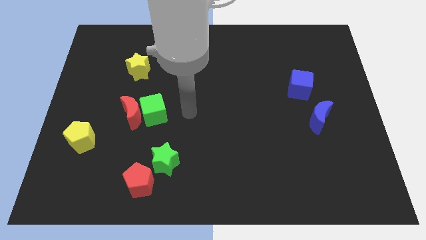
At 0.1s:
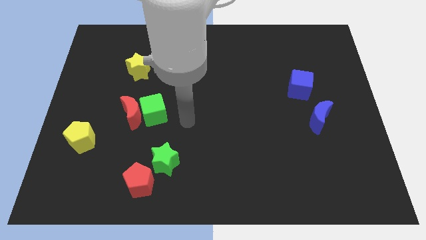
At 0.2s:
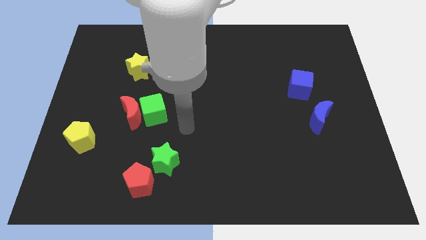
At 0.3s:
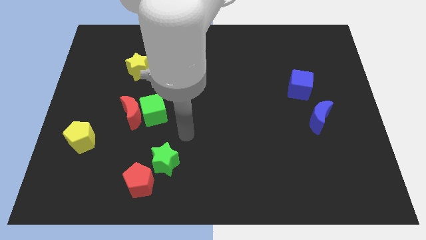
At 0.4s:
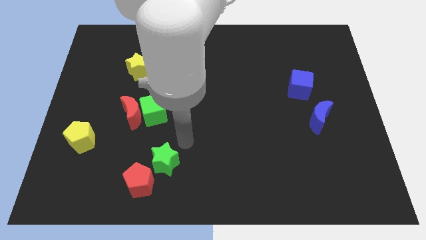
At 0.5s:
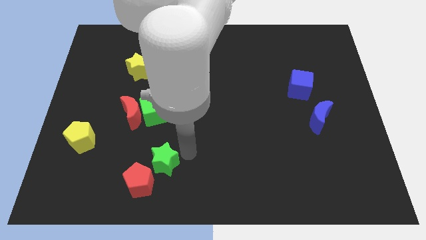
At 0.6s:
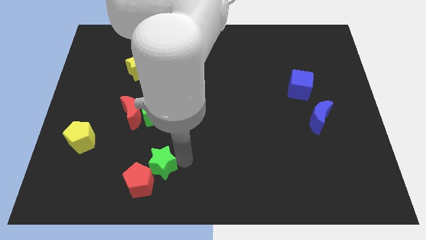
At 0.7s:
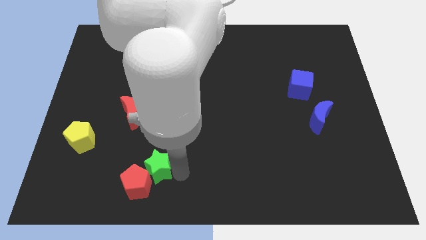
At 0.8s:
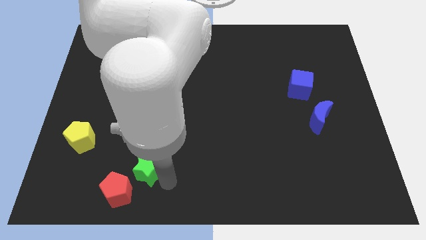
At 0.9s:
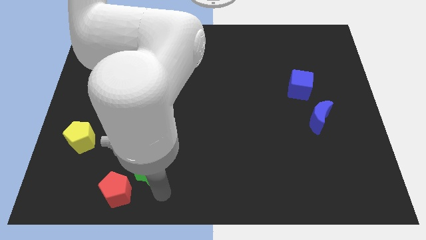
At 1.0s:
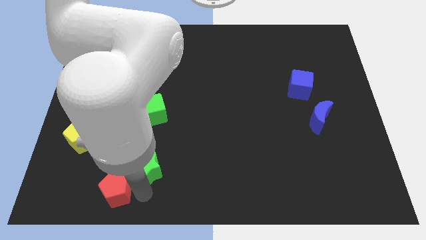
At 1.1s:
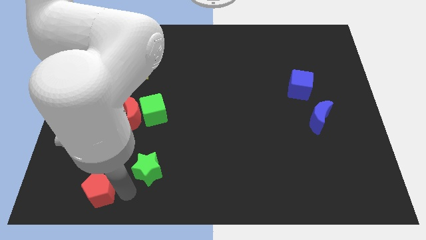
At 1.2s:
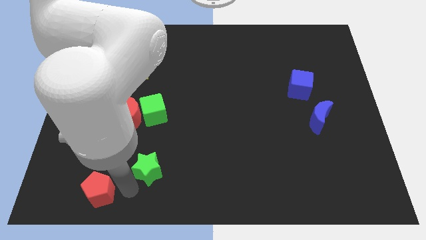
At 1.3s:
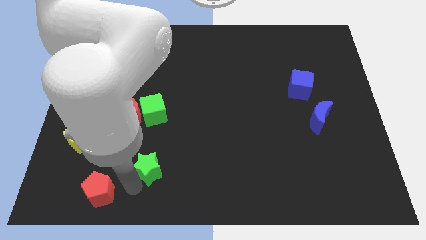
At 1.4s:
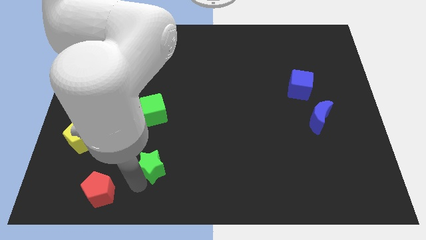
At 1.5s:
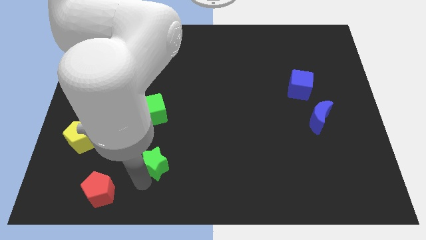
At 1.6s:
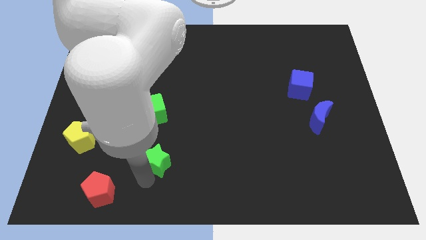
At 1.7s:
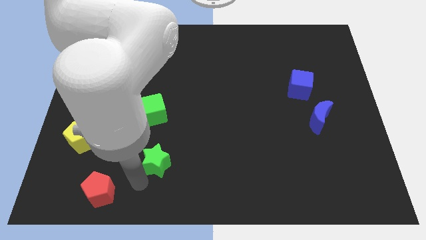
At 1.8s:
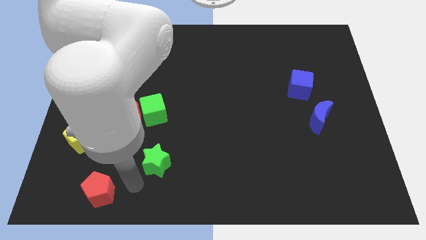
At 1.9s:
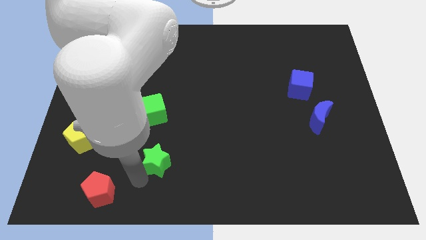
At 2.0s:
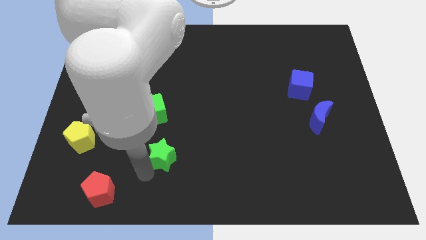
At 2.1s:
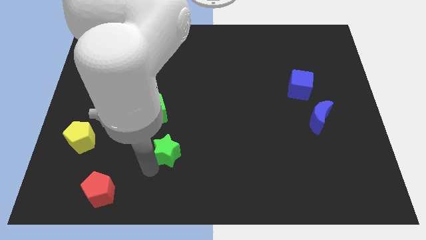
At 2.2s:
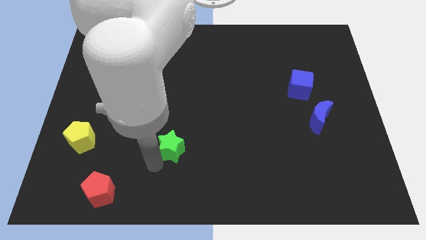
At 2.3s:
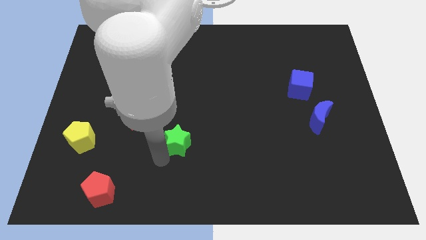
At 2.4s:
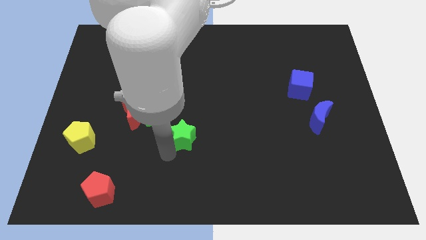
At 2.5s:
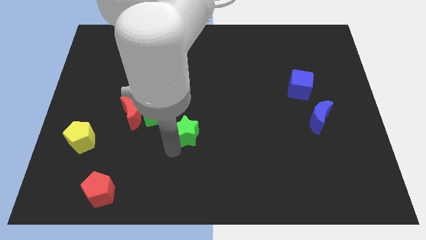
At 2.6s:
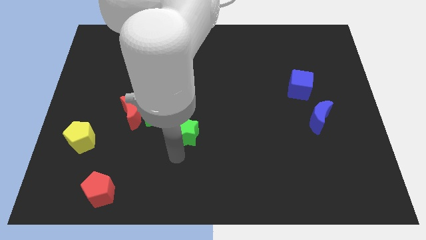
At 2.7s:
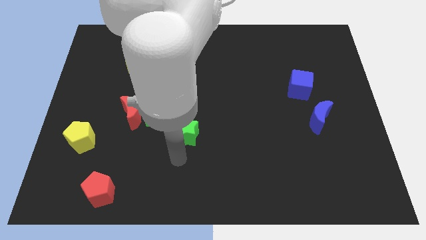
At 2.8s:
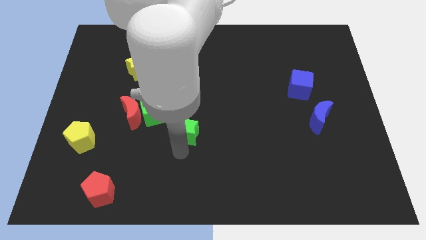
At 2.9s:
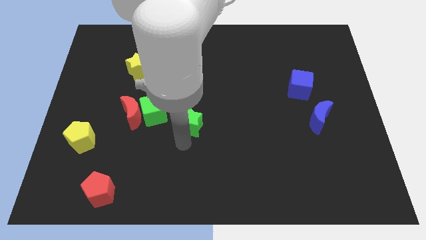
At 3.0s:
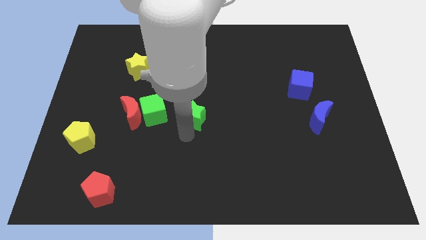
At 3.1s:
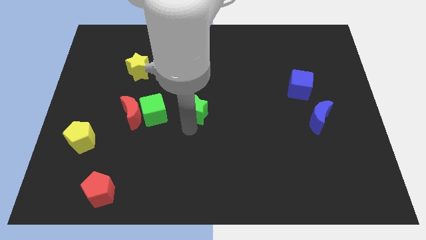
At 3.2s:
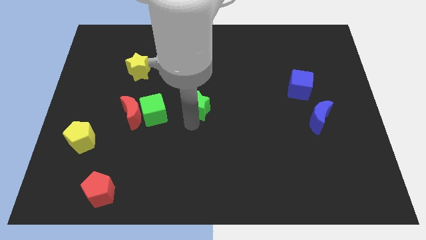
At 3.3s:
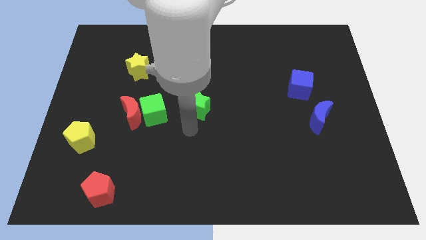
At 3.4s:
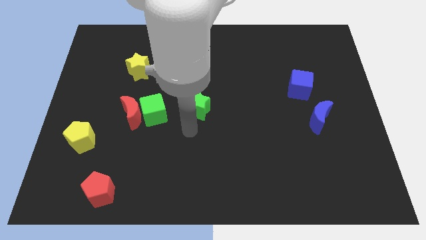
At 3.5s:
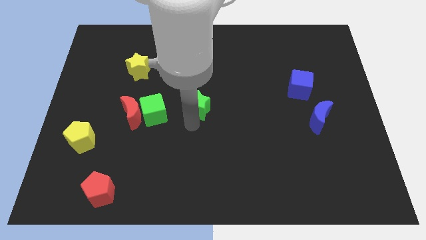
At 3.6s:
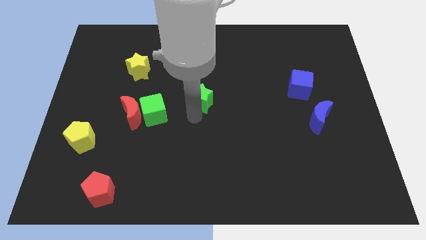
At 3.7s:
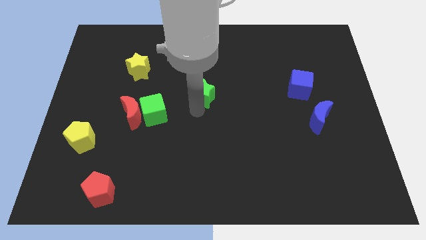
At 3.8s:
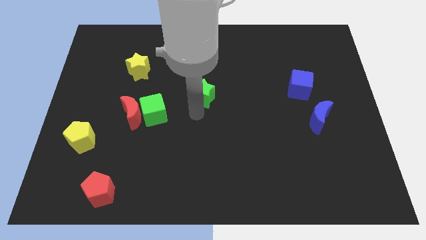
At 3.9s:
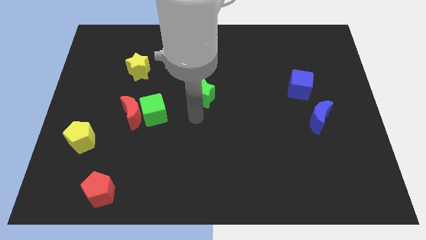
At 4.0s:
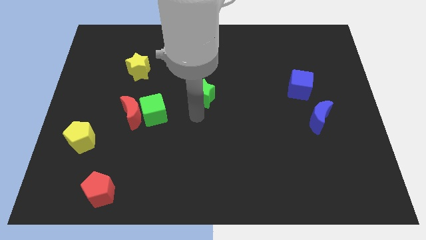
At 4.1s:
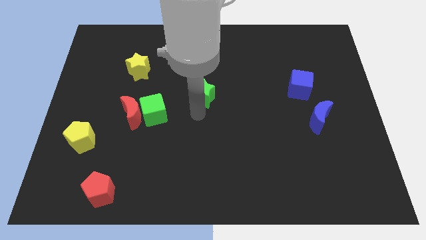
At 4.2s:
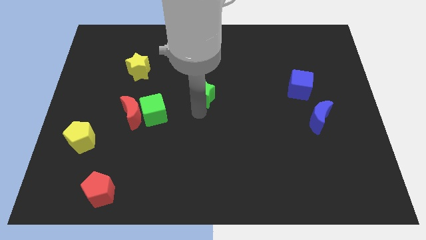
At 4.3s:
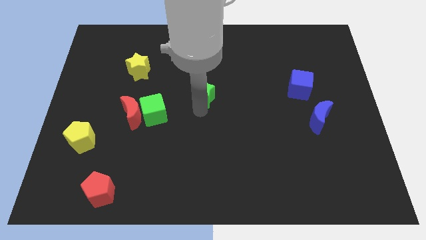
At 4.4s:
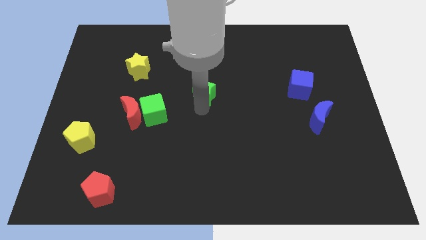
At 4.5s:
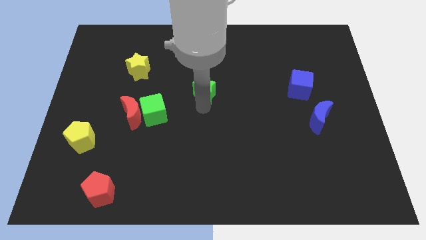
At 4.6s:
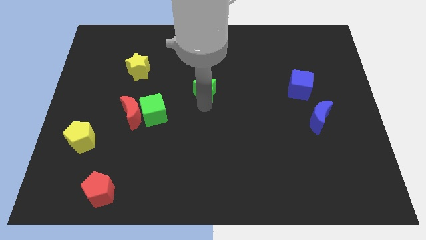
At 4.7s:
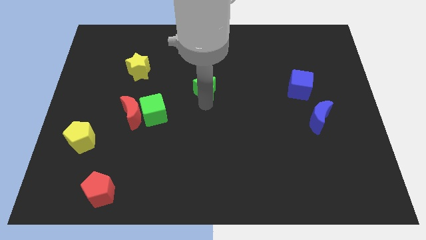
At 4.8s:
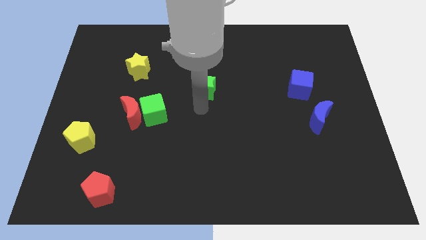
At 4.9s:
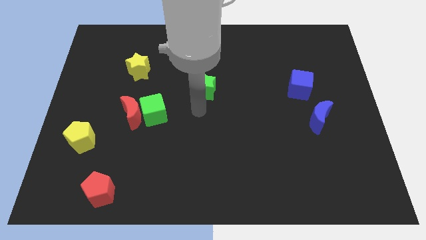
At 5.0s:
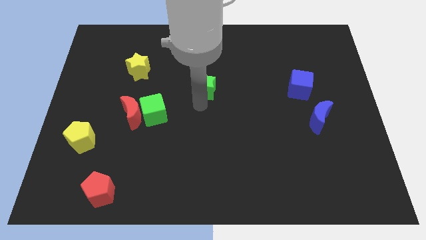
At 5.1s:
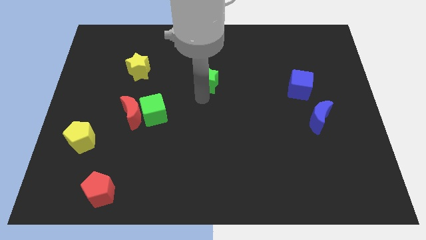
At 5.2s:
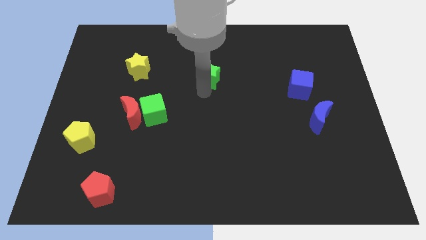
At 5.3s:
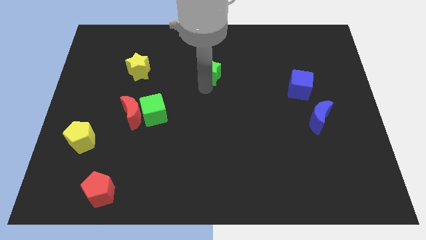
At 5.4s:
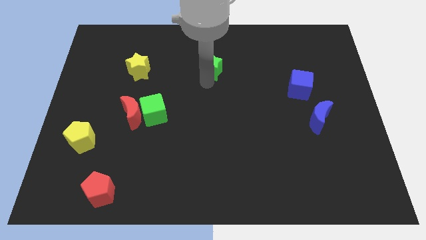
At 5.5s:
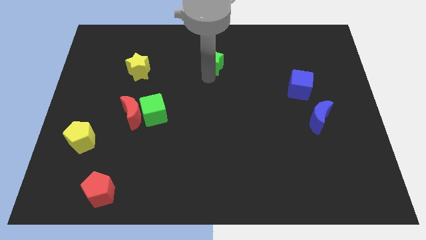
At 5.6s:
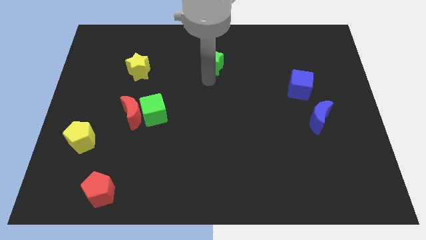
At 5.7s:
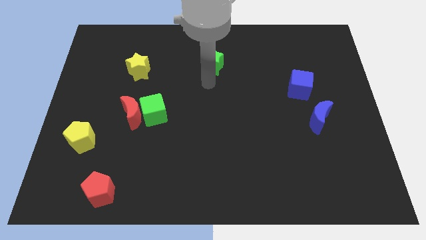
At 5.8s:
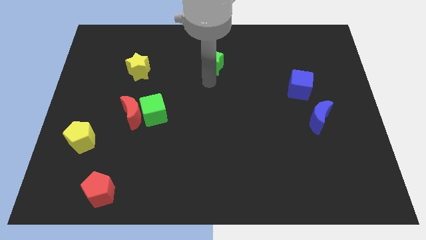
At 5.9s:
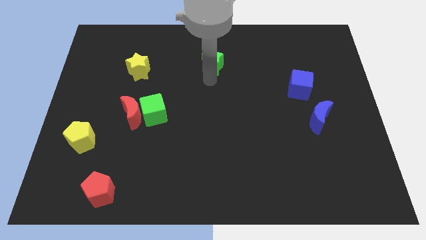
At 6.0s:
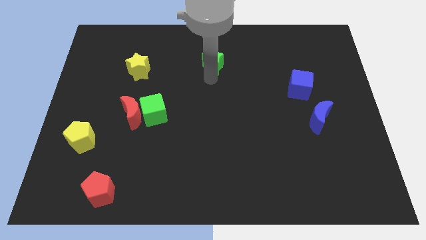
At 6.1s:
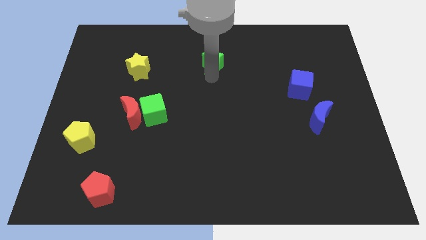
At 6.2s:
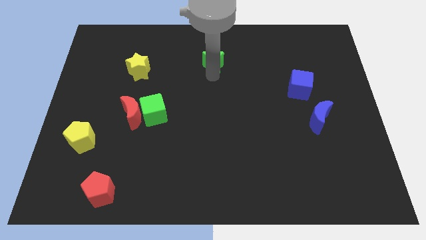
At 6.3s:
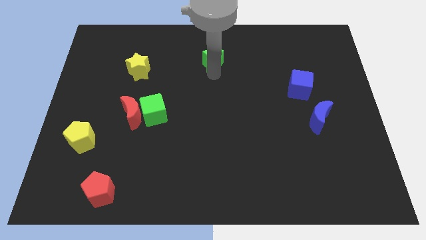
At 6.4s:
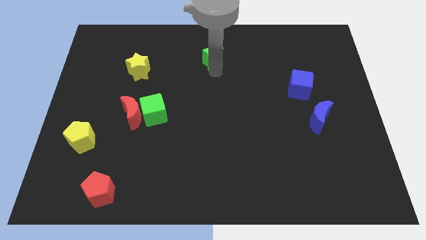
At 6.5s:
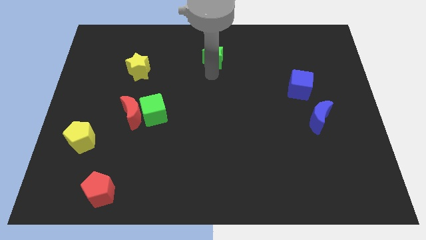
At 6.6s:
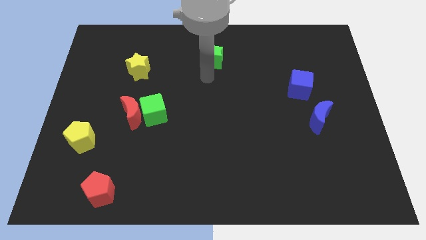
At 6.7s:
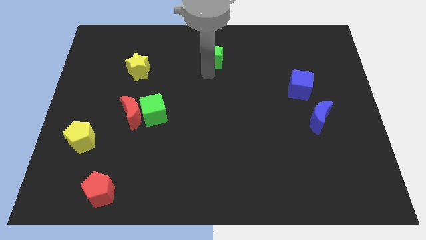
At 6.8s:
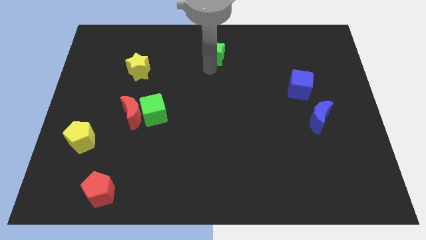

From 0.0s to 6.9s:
slide the green star to the top side
